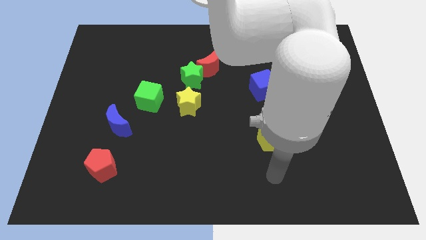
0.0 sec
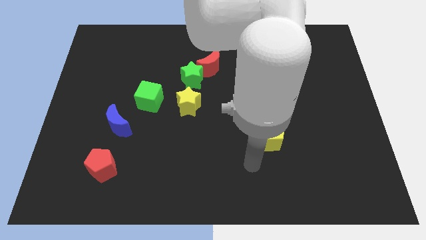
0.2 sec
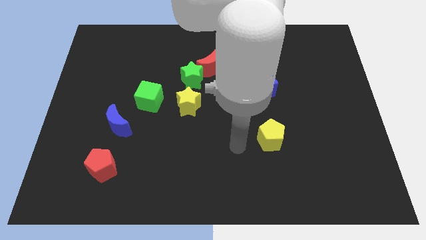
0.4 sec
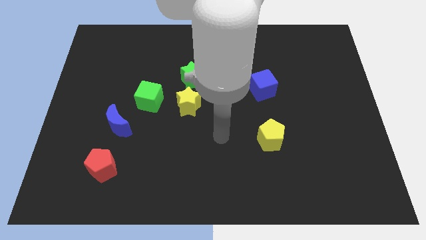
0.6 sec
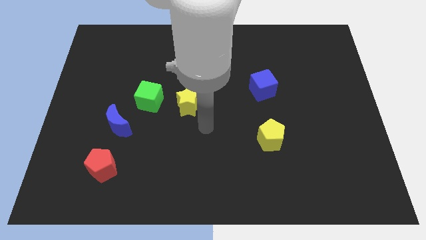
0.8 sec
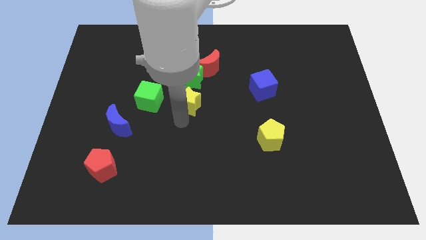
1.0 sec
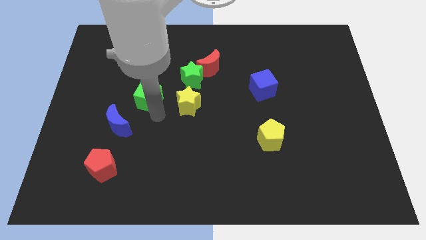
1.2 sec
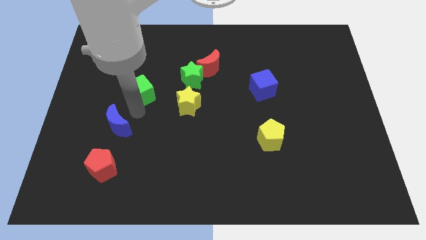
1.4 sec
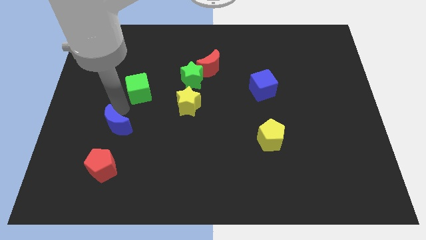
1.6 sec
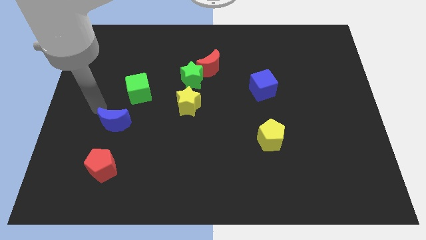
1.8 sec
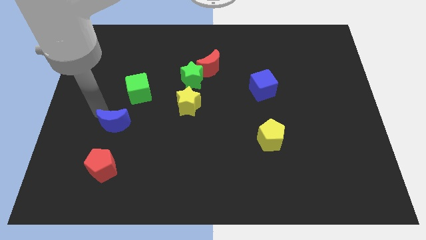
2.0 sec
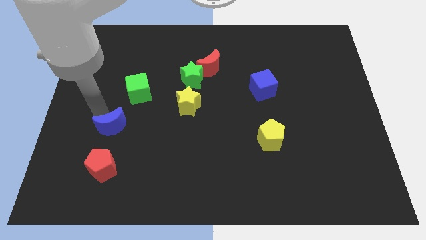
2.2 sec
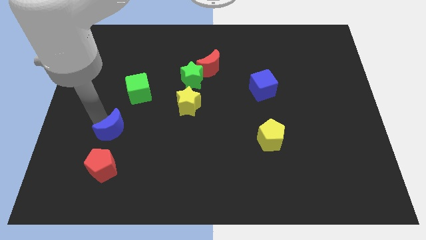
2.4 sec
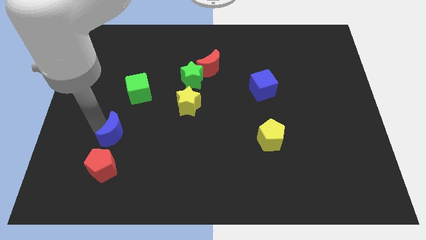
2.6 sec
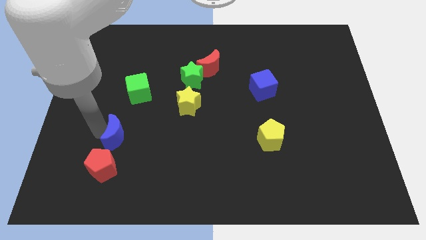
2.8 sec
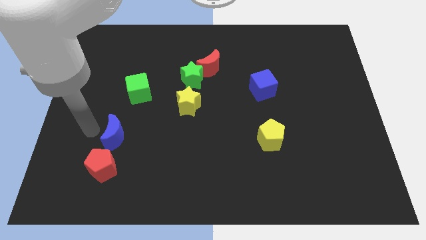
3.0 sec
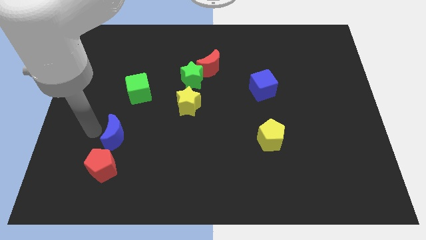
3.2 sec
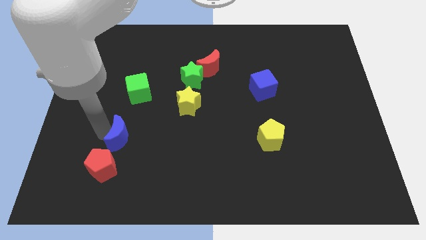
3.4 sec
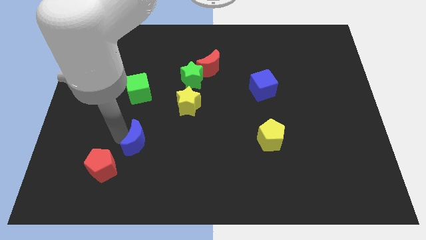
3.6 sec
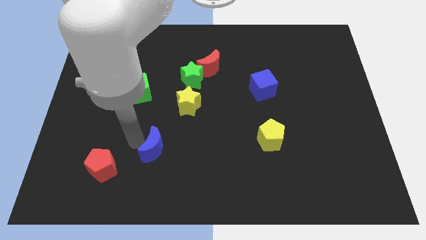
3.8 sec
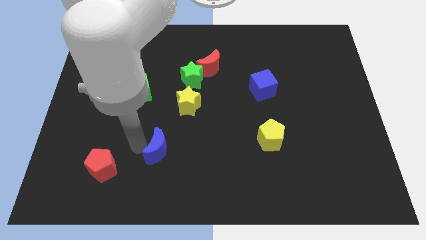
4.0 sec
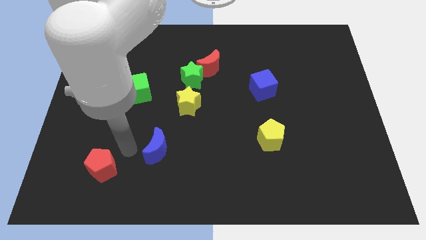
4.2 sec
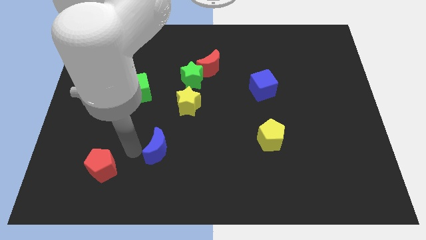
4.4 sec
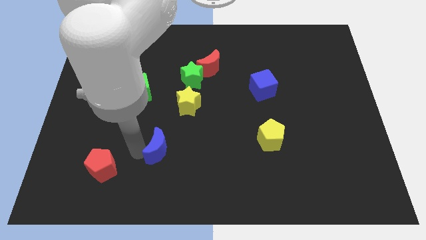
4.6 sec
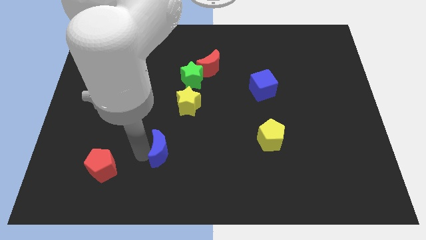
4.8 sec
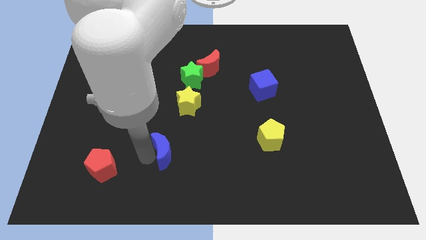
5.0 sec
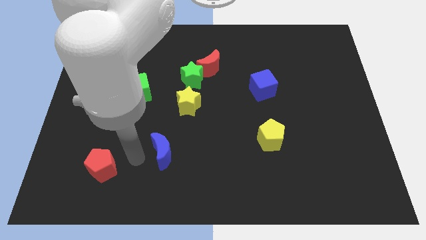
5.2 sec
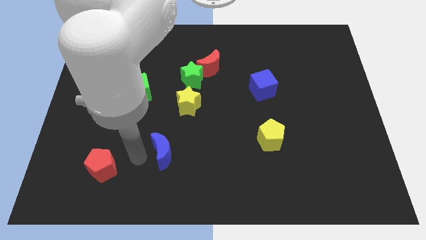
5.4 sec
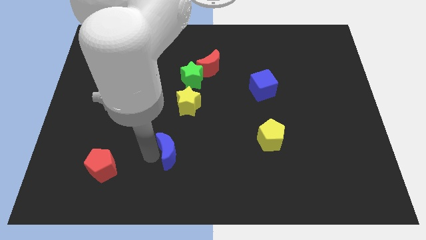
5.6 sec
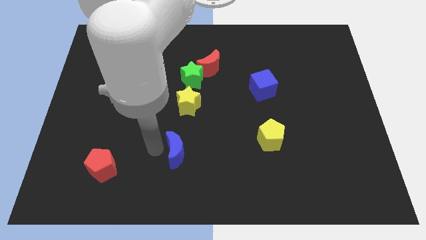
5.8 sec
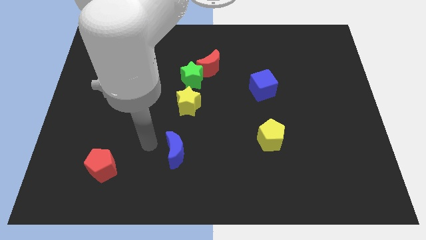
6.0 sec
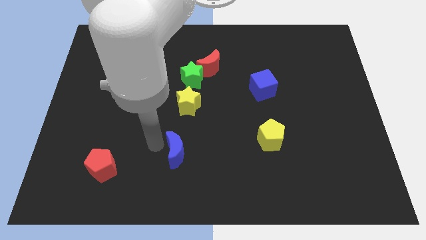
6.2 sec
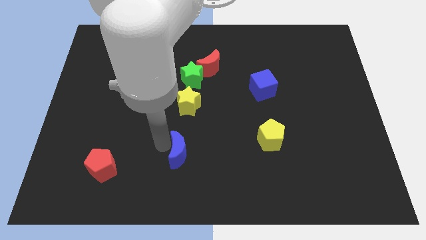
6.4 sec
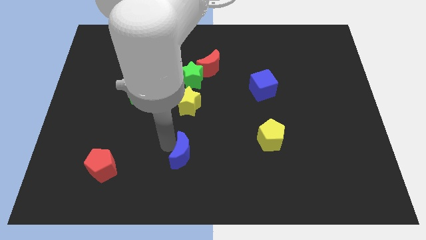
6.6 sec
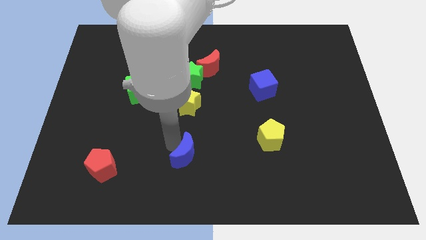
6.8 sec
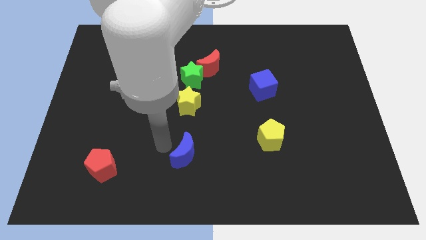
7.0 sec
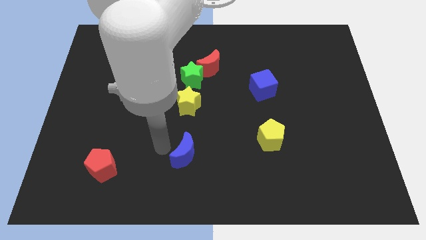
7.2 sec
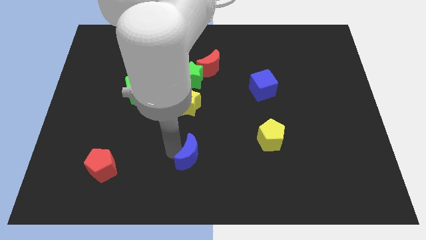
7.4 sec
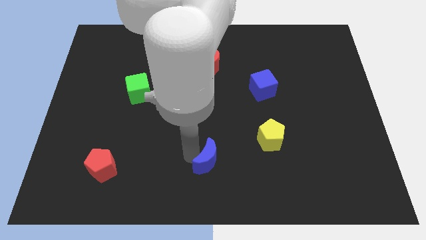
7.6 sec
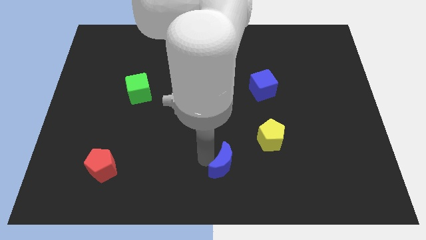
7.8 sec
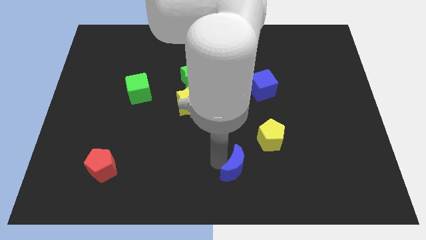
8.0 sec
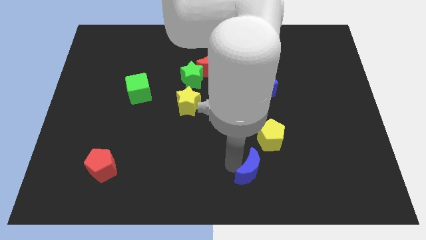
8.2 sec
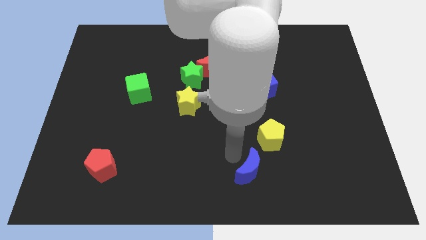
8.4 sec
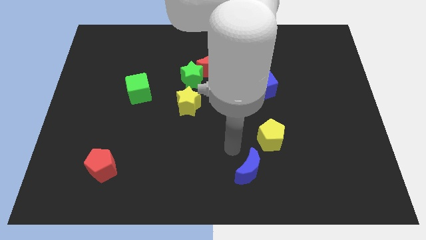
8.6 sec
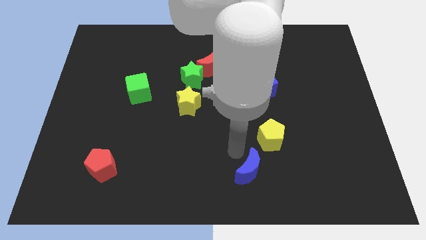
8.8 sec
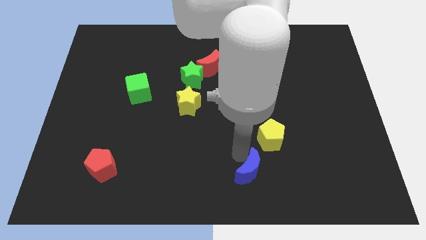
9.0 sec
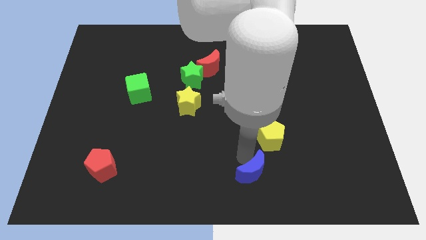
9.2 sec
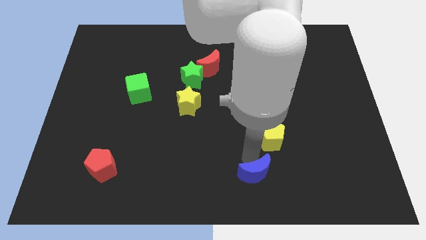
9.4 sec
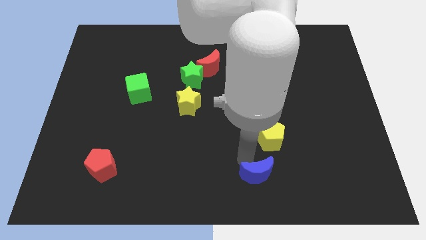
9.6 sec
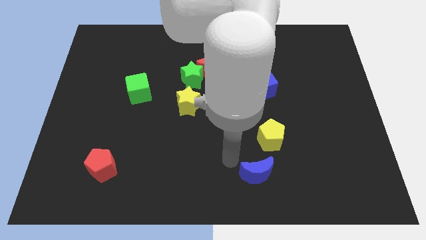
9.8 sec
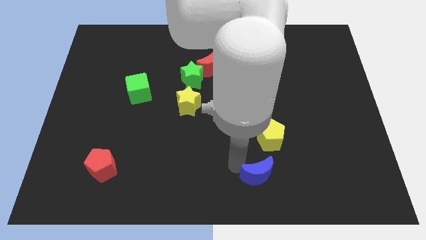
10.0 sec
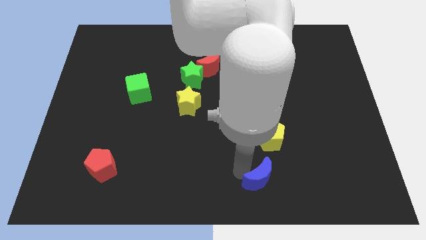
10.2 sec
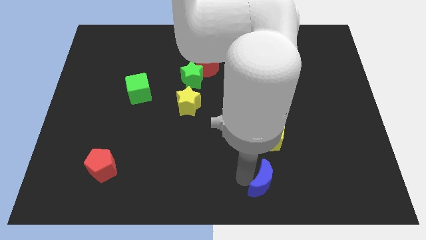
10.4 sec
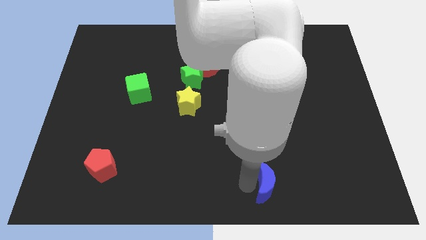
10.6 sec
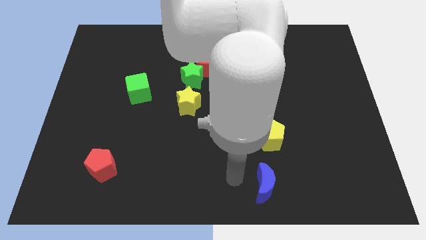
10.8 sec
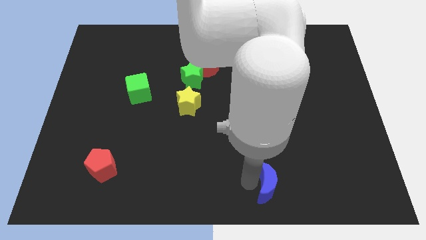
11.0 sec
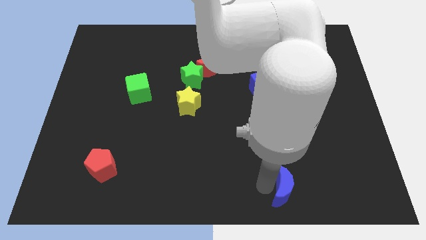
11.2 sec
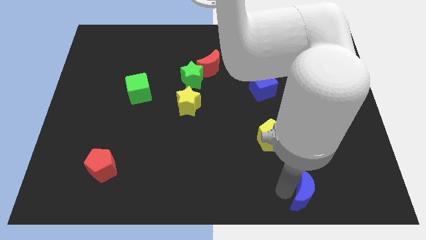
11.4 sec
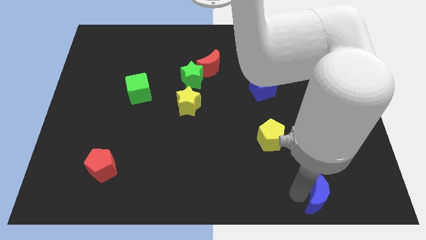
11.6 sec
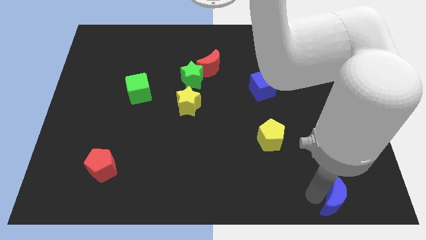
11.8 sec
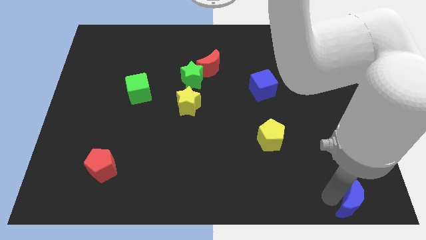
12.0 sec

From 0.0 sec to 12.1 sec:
slide the blue moon to the bottom right corner

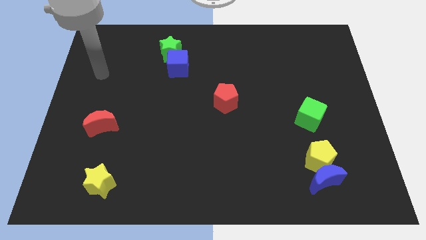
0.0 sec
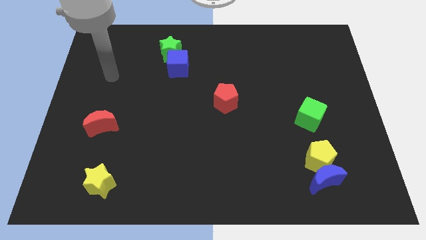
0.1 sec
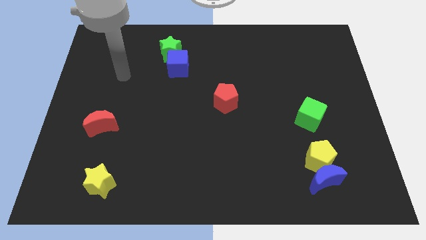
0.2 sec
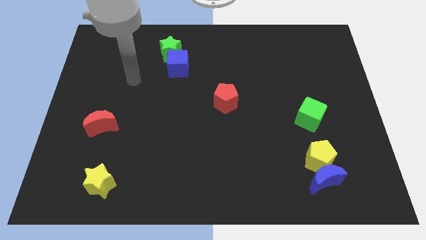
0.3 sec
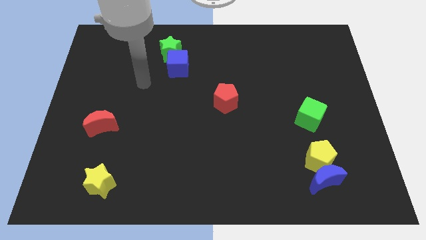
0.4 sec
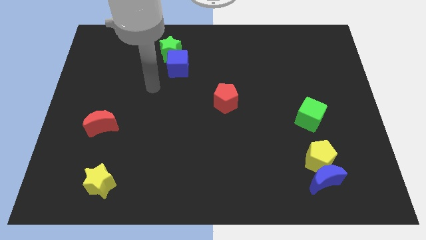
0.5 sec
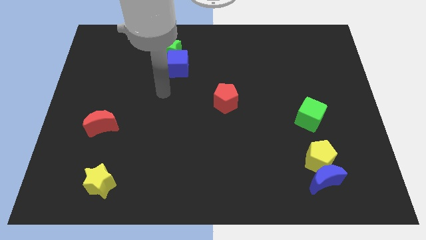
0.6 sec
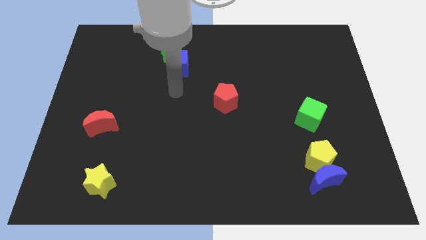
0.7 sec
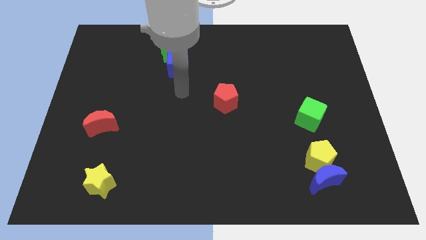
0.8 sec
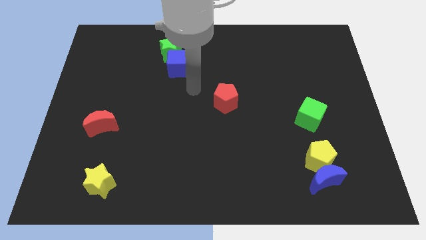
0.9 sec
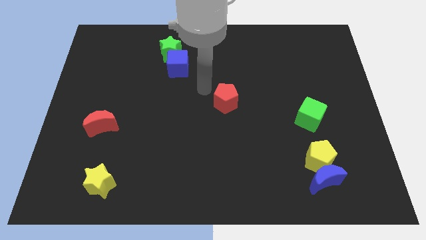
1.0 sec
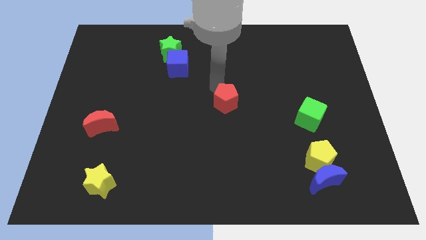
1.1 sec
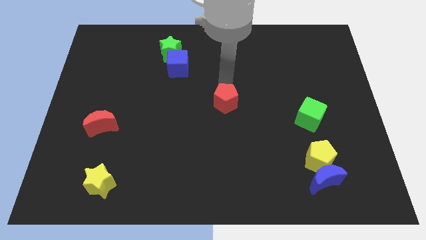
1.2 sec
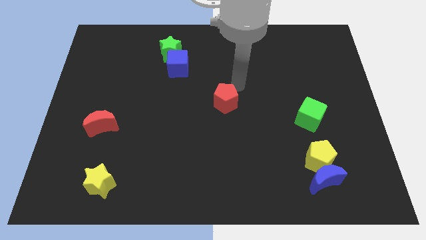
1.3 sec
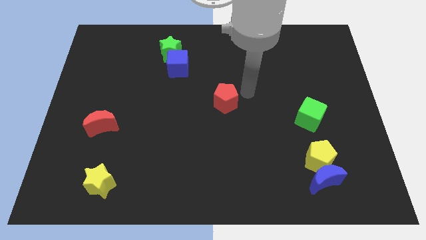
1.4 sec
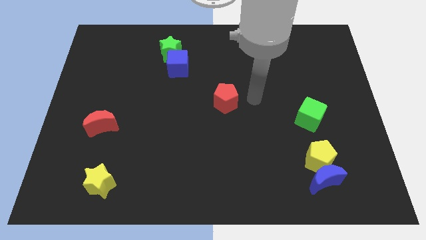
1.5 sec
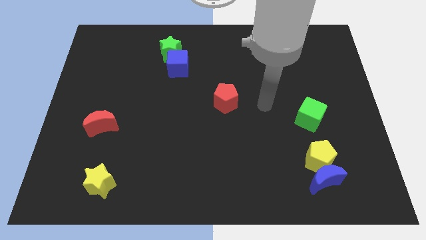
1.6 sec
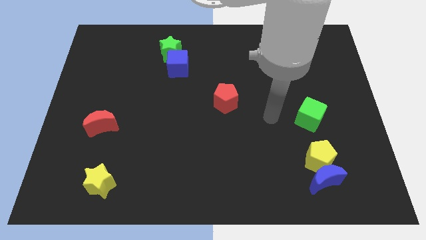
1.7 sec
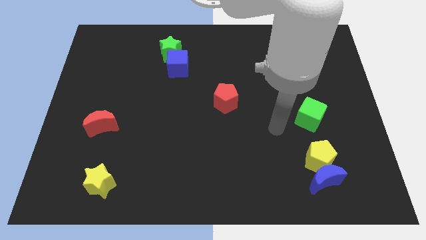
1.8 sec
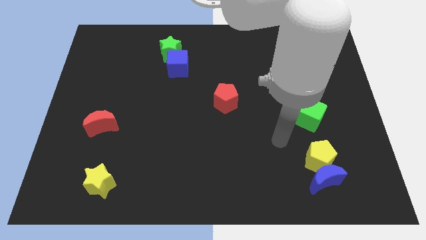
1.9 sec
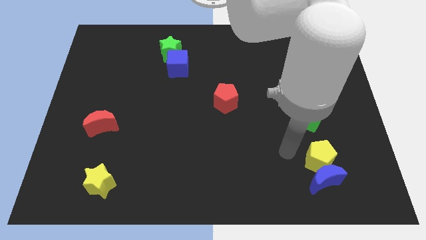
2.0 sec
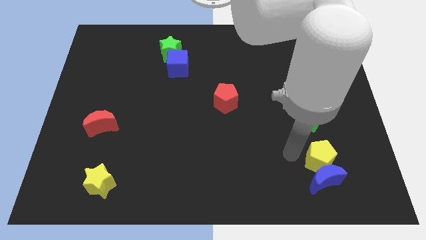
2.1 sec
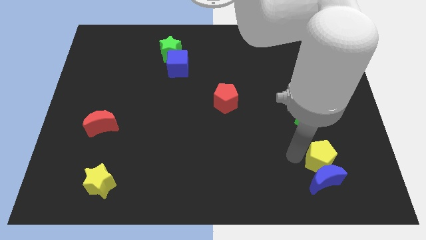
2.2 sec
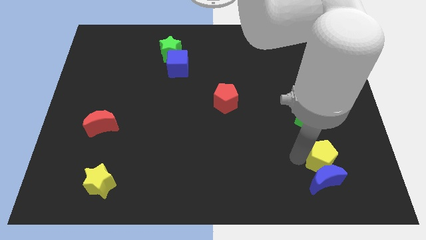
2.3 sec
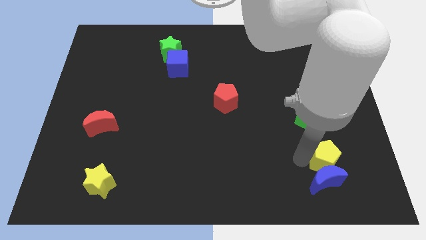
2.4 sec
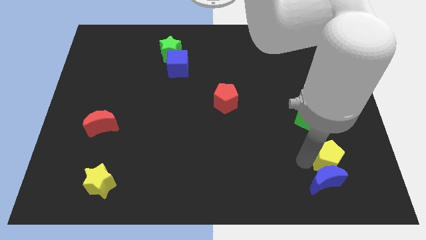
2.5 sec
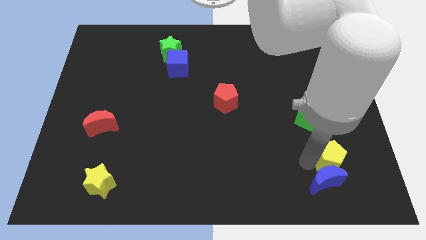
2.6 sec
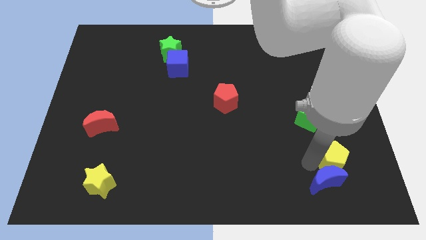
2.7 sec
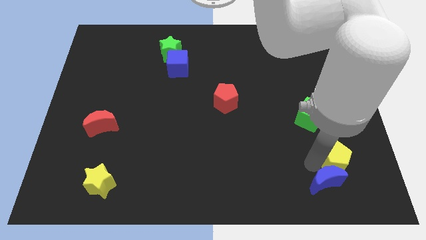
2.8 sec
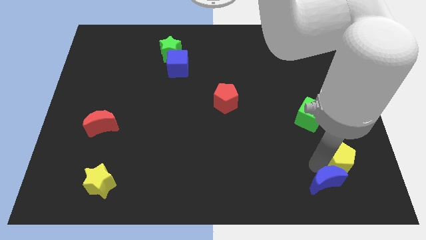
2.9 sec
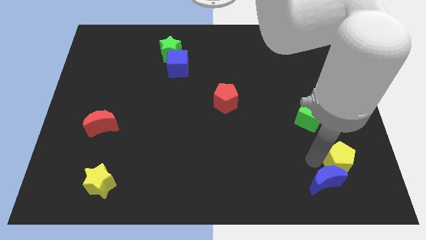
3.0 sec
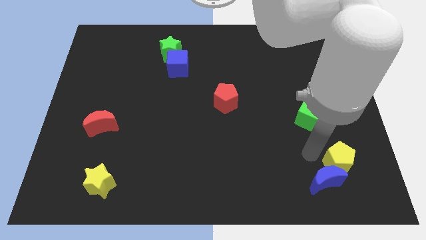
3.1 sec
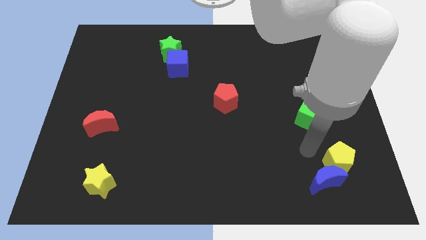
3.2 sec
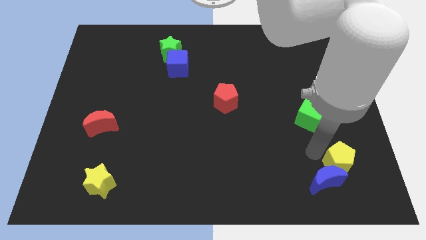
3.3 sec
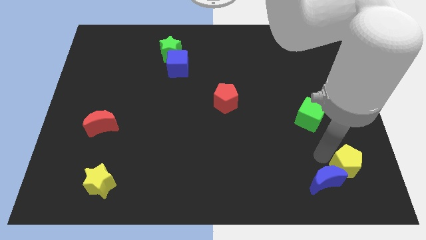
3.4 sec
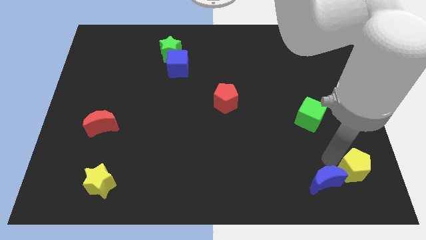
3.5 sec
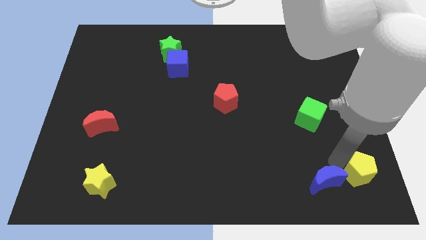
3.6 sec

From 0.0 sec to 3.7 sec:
push the yellow pentagon to the bottom right
